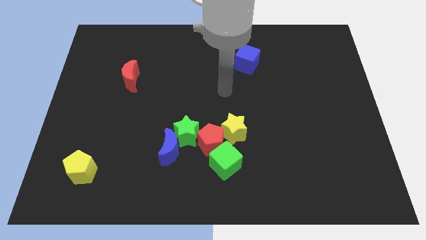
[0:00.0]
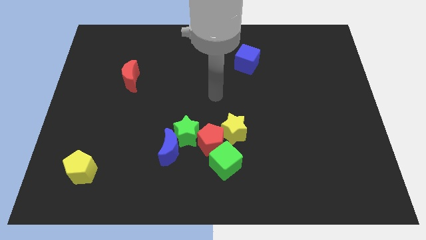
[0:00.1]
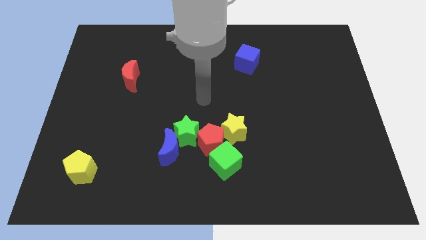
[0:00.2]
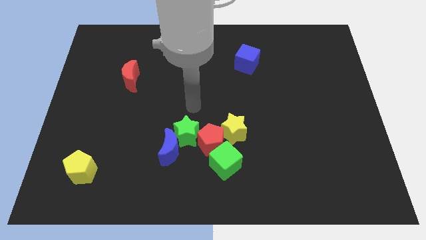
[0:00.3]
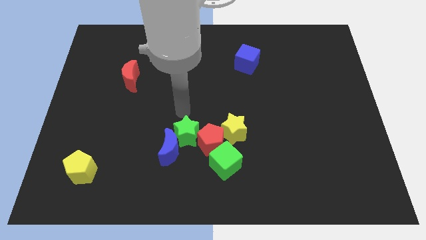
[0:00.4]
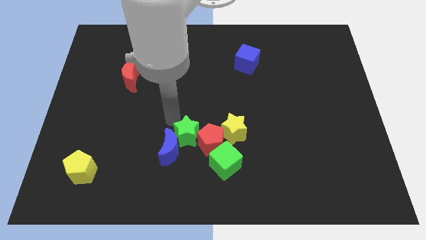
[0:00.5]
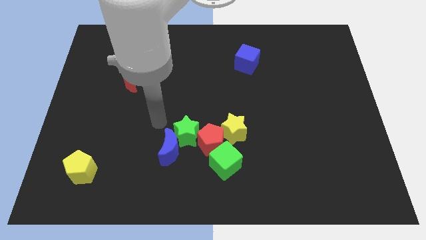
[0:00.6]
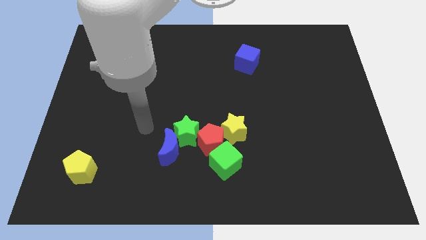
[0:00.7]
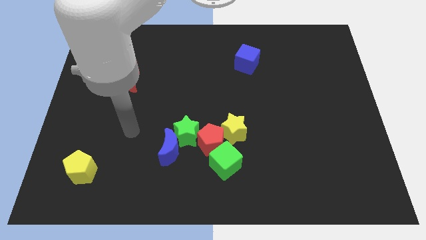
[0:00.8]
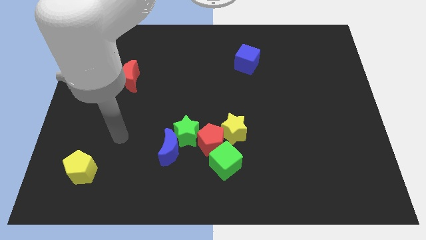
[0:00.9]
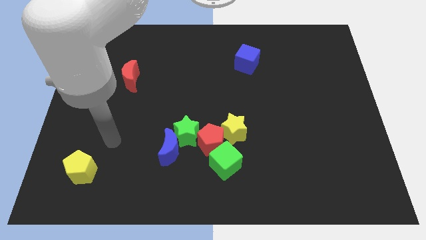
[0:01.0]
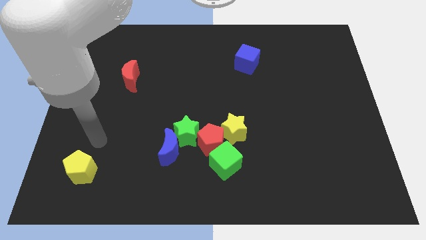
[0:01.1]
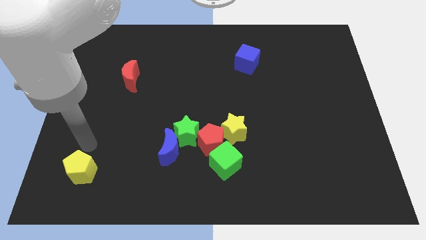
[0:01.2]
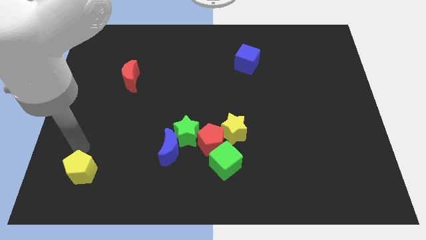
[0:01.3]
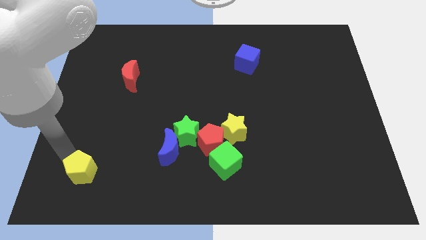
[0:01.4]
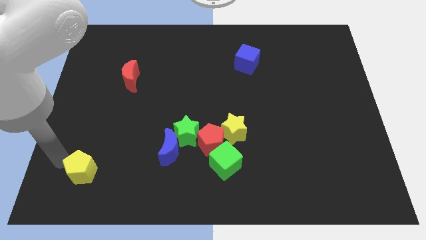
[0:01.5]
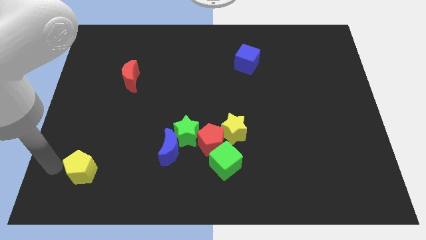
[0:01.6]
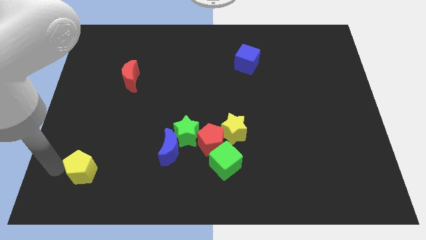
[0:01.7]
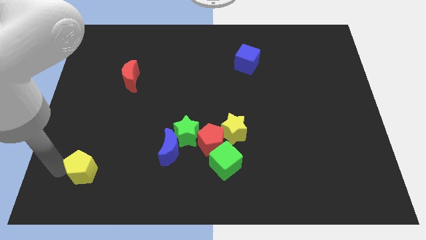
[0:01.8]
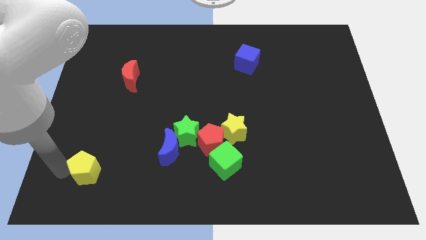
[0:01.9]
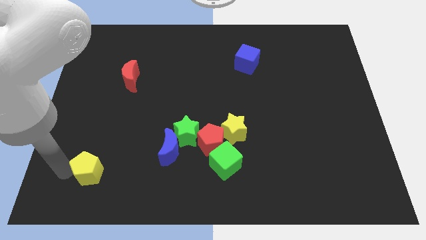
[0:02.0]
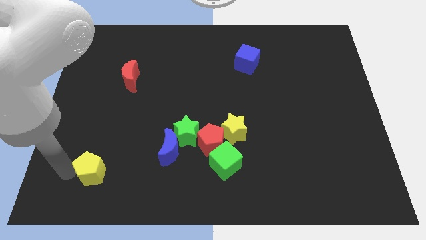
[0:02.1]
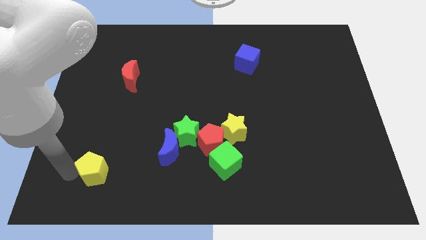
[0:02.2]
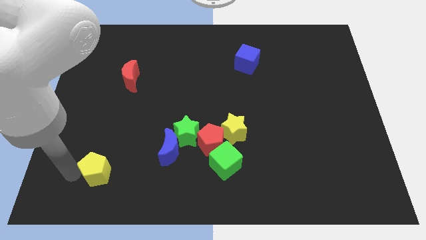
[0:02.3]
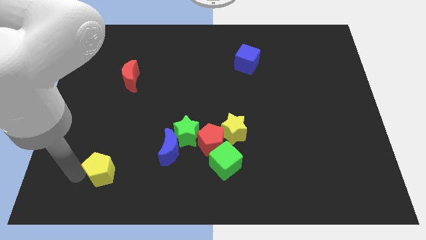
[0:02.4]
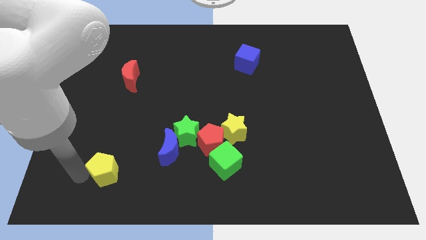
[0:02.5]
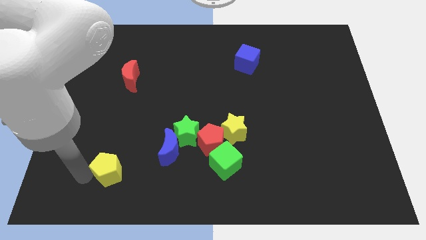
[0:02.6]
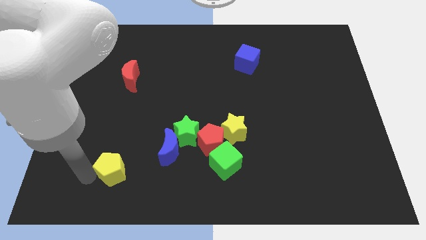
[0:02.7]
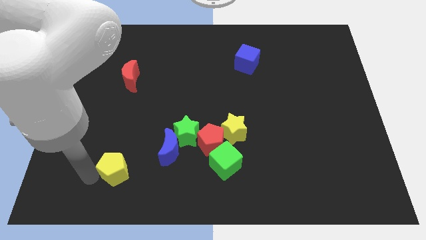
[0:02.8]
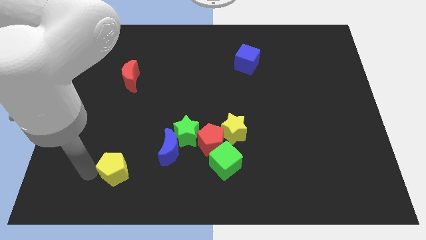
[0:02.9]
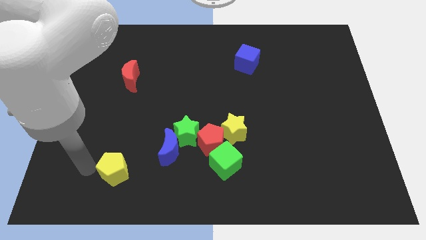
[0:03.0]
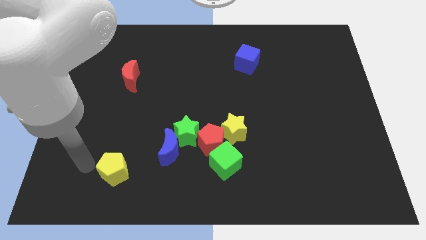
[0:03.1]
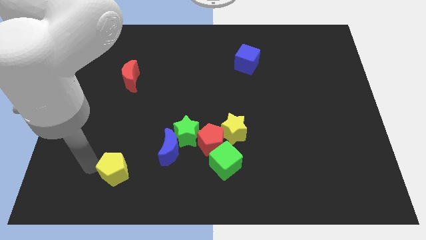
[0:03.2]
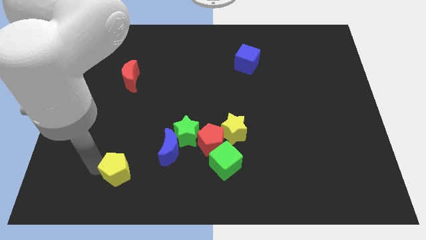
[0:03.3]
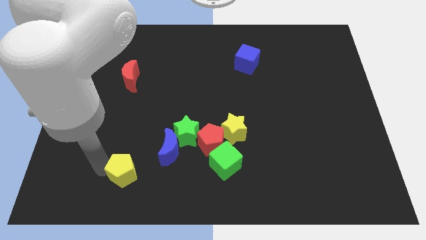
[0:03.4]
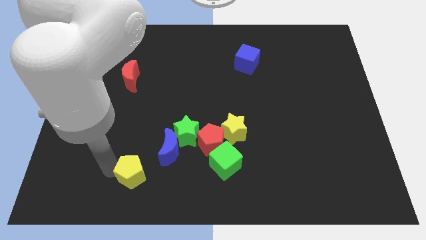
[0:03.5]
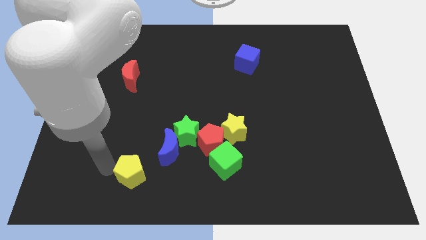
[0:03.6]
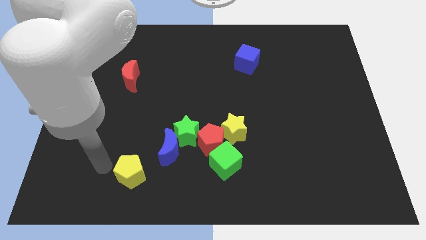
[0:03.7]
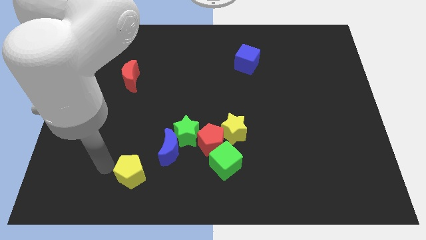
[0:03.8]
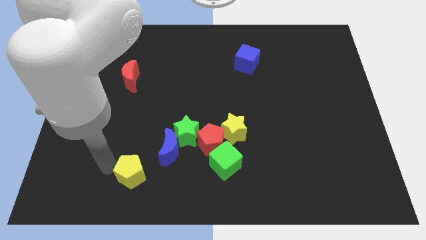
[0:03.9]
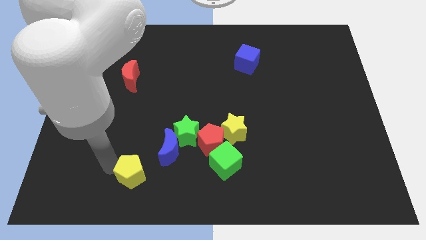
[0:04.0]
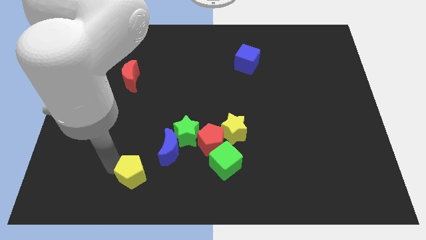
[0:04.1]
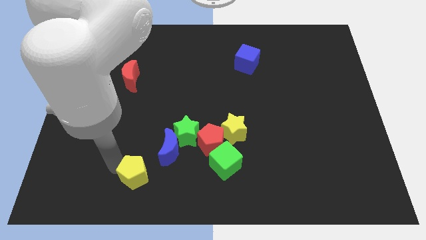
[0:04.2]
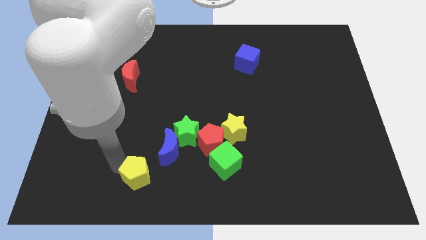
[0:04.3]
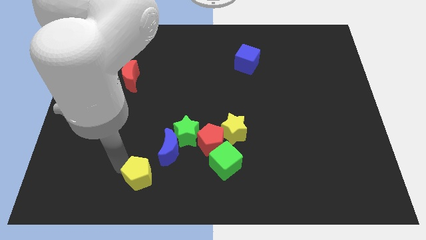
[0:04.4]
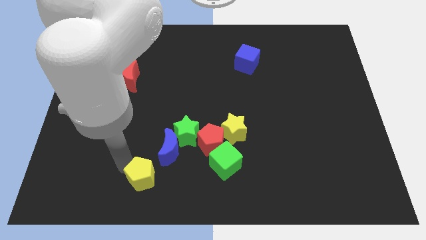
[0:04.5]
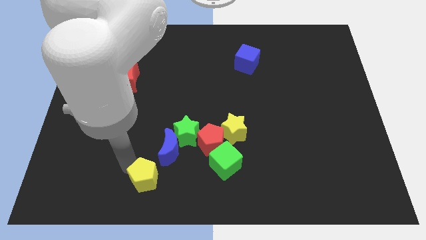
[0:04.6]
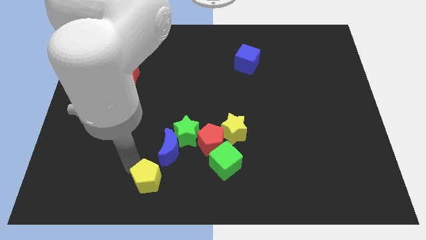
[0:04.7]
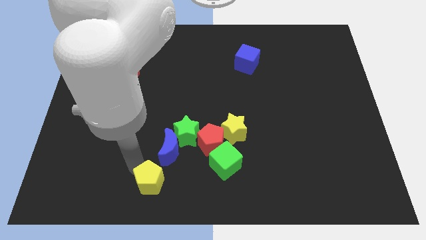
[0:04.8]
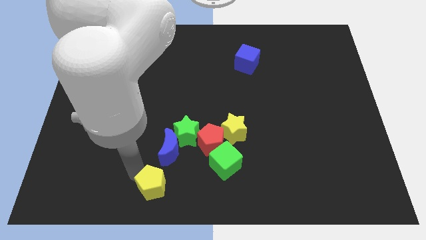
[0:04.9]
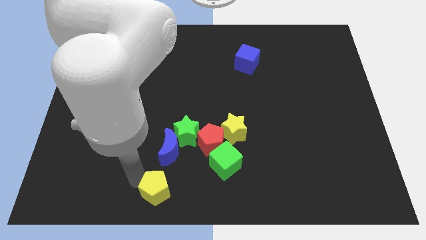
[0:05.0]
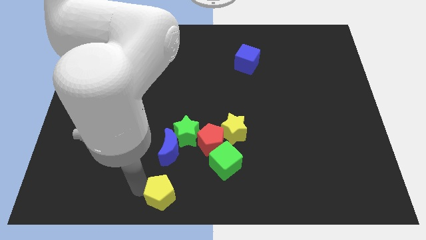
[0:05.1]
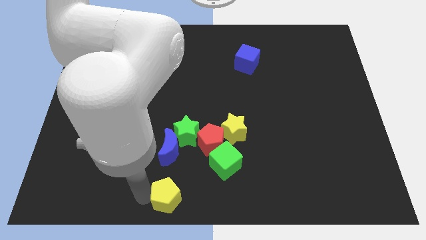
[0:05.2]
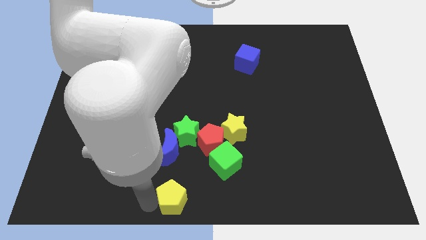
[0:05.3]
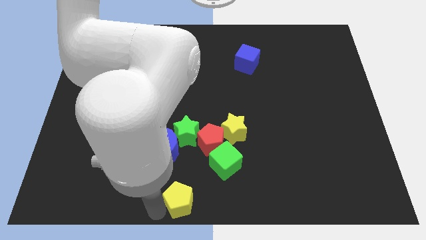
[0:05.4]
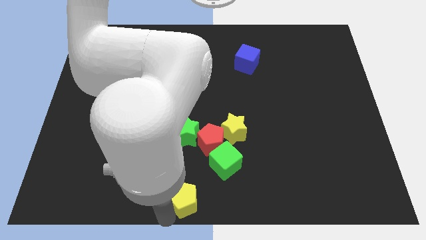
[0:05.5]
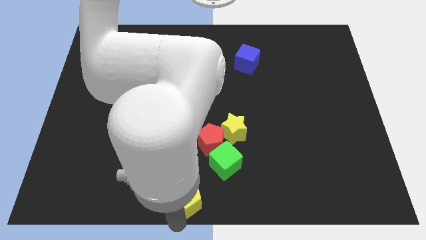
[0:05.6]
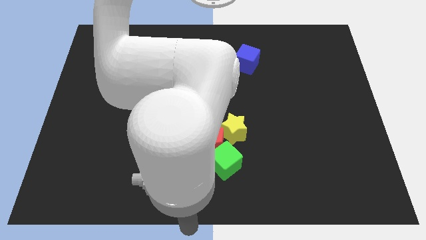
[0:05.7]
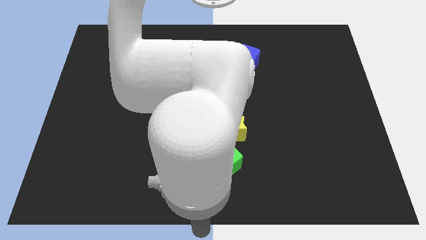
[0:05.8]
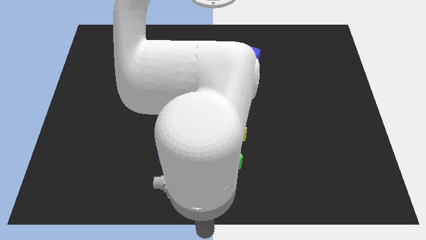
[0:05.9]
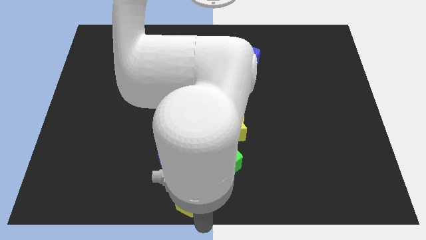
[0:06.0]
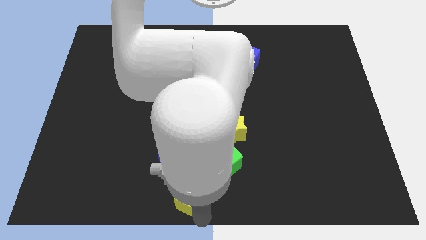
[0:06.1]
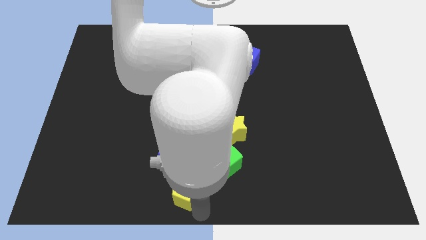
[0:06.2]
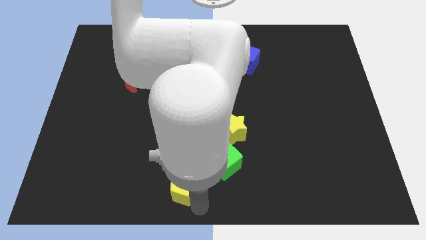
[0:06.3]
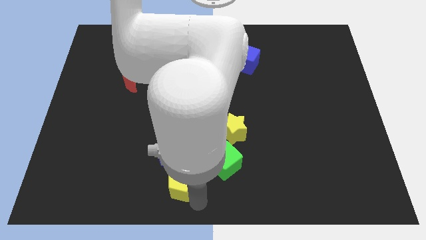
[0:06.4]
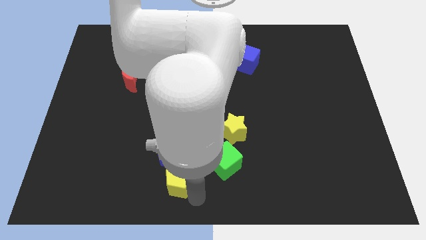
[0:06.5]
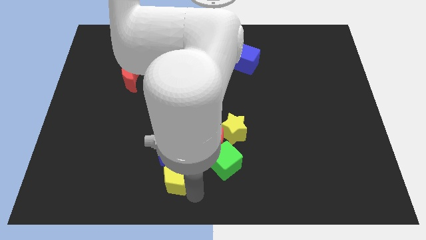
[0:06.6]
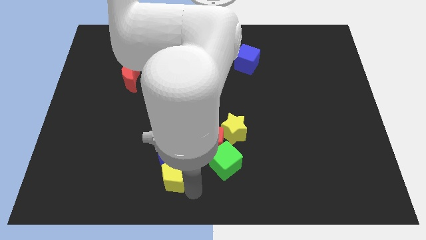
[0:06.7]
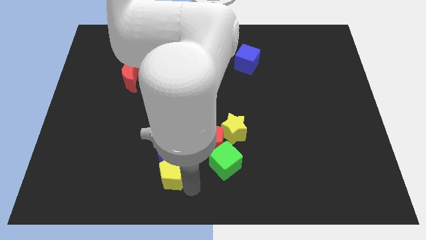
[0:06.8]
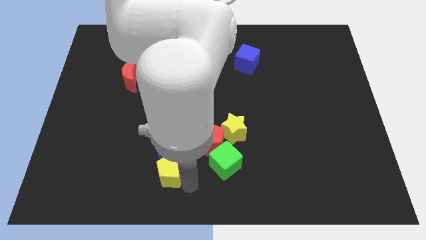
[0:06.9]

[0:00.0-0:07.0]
move the yellow pentagon diagonally down and to the left of the green star

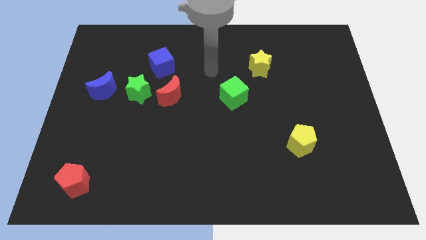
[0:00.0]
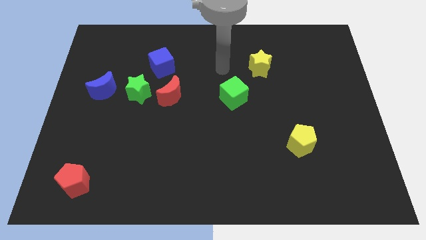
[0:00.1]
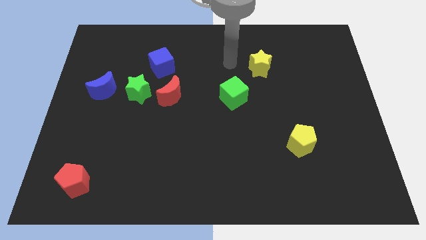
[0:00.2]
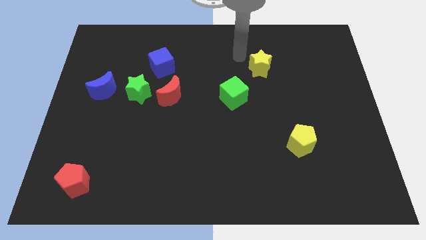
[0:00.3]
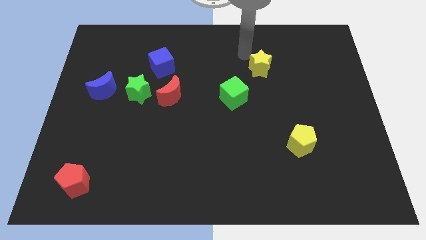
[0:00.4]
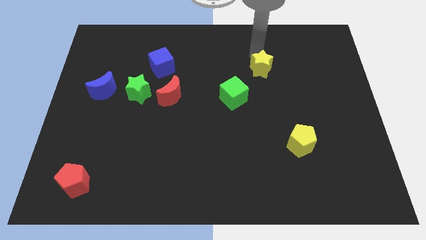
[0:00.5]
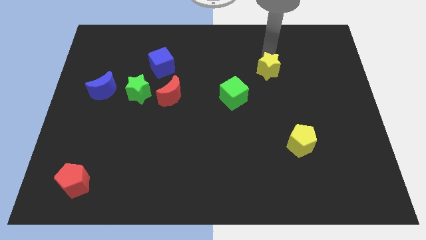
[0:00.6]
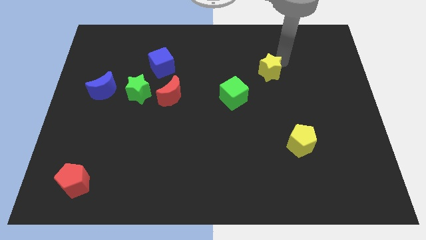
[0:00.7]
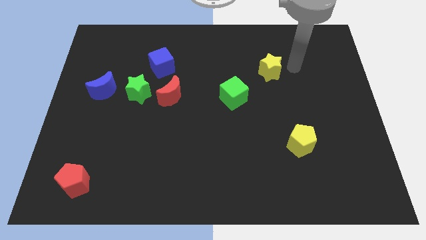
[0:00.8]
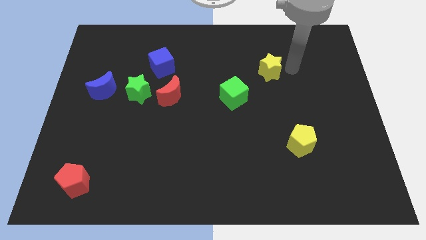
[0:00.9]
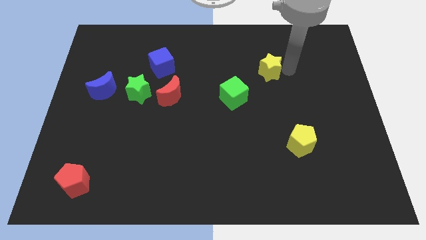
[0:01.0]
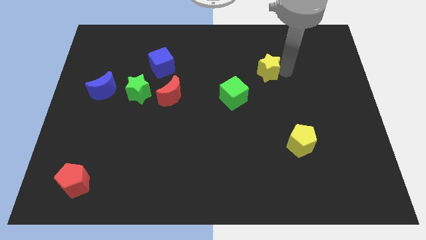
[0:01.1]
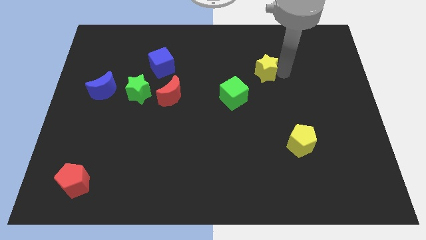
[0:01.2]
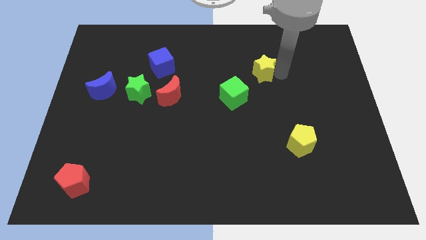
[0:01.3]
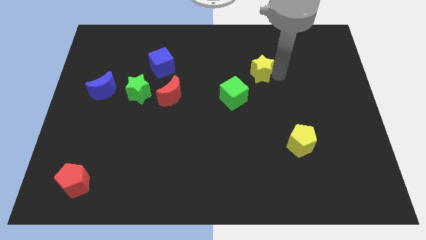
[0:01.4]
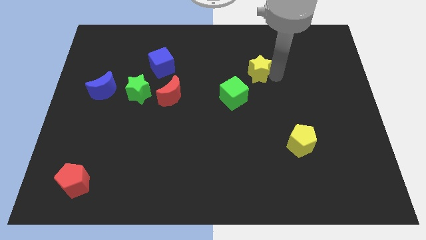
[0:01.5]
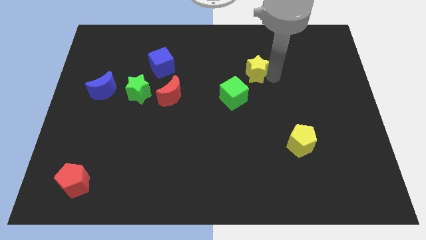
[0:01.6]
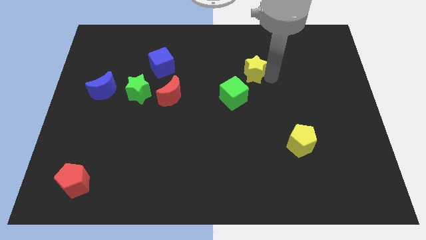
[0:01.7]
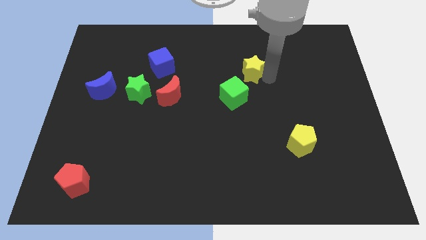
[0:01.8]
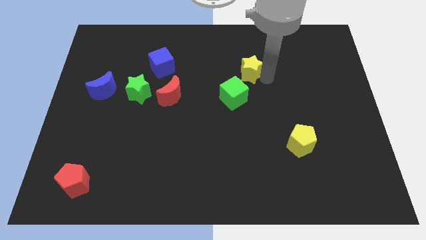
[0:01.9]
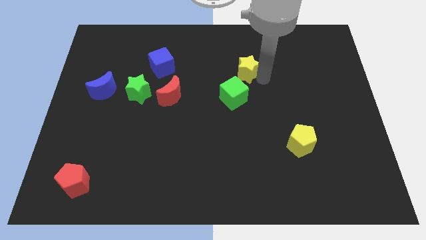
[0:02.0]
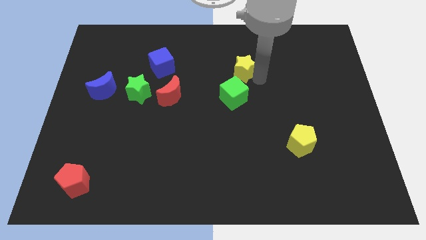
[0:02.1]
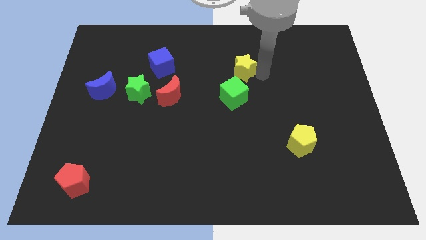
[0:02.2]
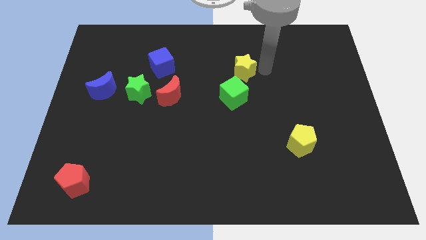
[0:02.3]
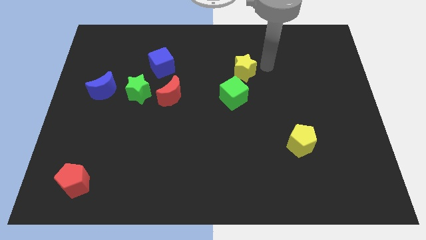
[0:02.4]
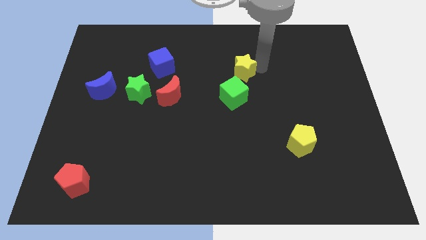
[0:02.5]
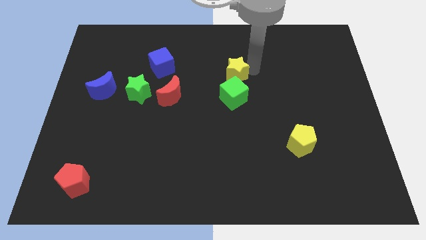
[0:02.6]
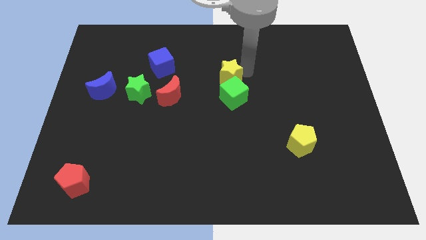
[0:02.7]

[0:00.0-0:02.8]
put the yellow star to the top left of the green cube
